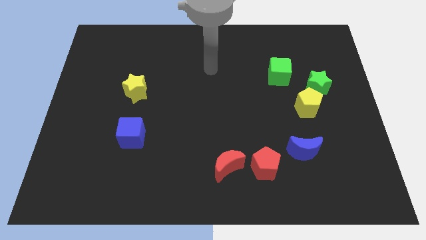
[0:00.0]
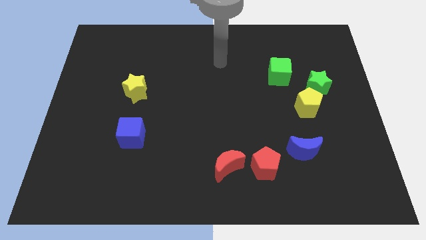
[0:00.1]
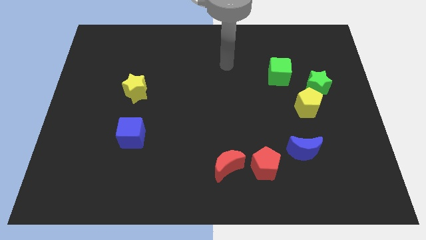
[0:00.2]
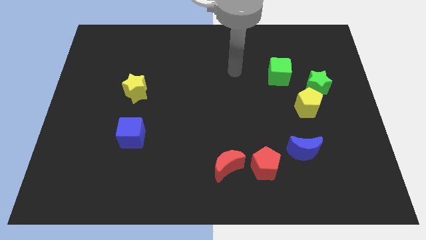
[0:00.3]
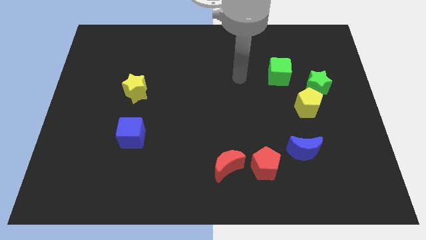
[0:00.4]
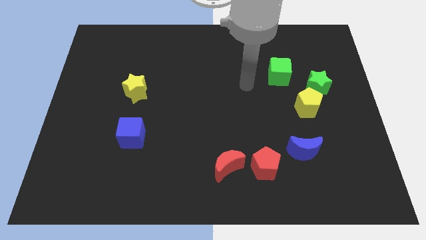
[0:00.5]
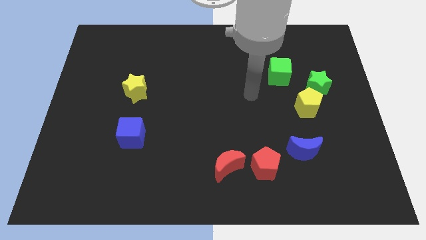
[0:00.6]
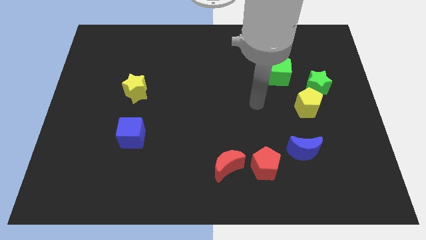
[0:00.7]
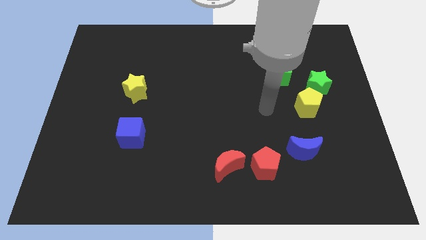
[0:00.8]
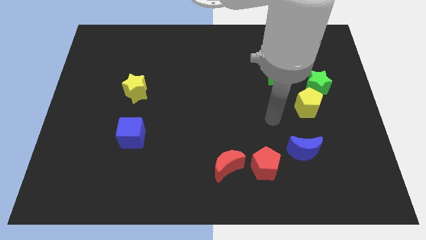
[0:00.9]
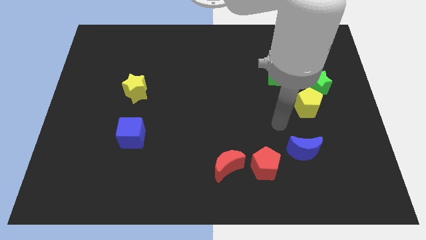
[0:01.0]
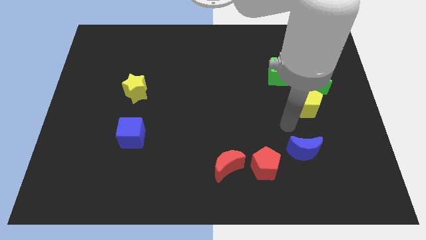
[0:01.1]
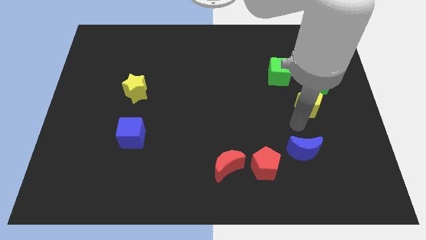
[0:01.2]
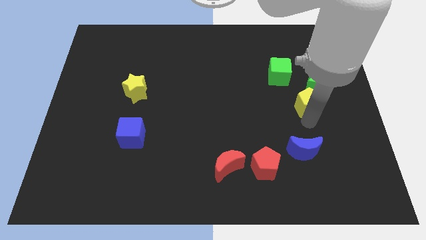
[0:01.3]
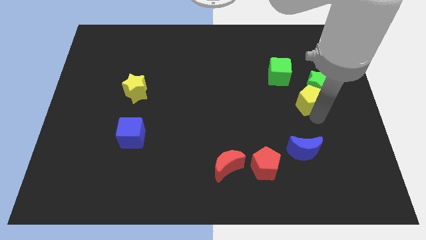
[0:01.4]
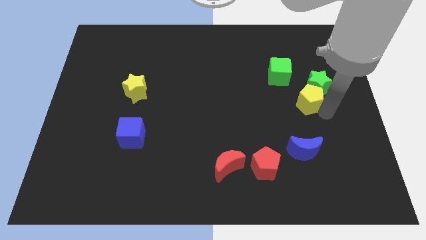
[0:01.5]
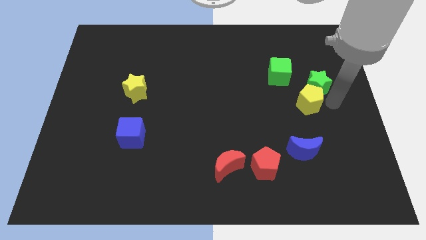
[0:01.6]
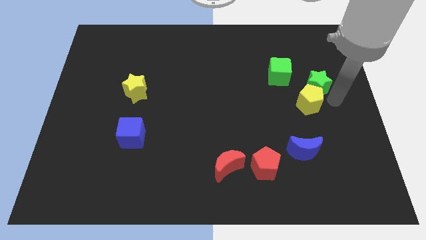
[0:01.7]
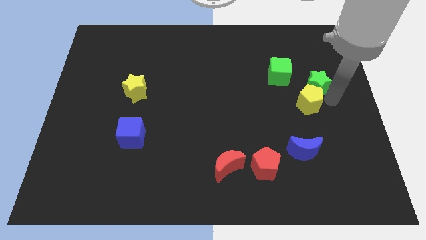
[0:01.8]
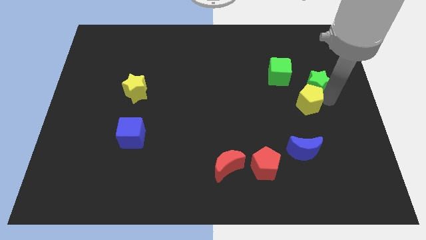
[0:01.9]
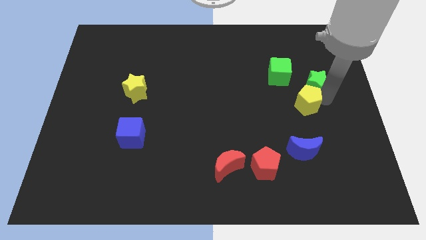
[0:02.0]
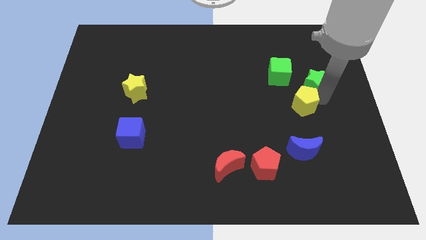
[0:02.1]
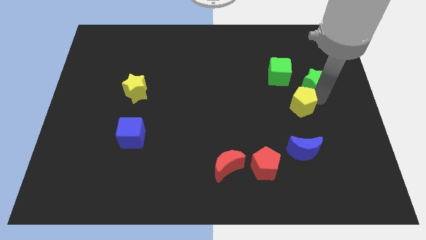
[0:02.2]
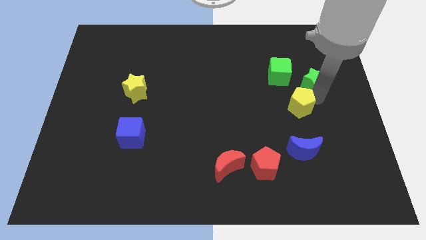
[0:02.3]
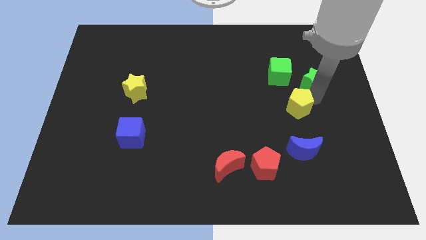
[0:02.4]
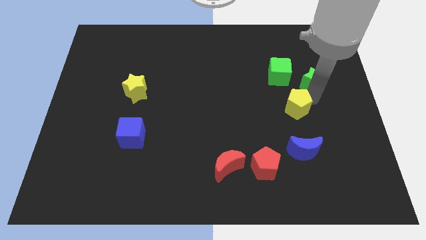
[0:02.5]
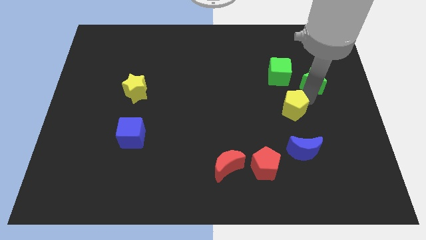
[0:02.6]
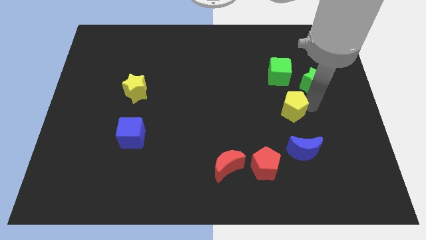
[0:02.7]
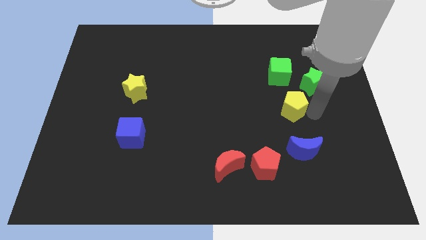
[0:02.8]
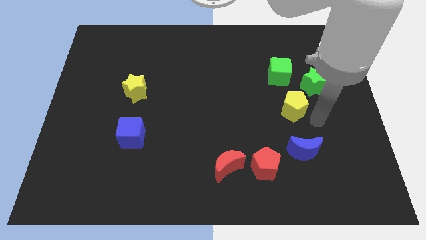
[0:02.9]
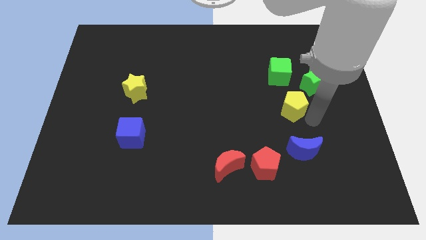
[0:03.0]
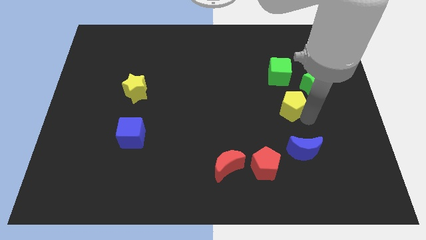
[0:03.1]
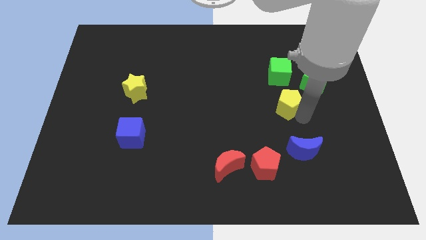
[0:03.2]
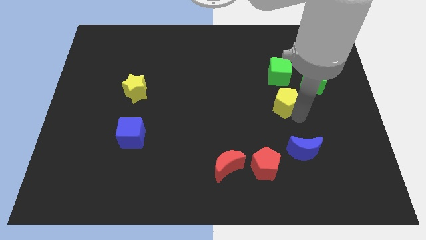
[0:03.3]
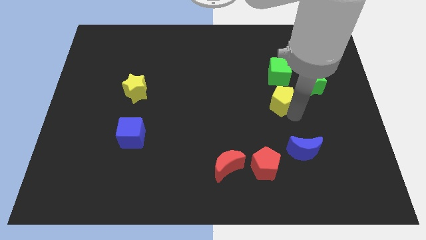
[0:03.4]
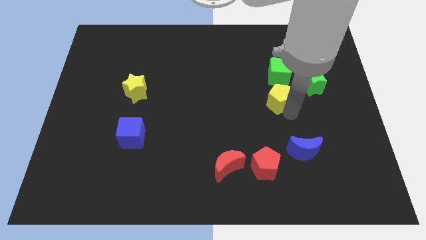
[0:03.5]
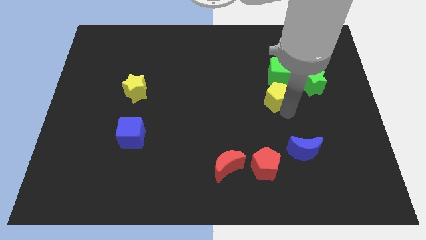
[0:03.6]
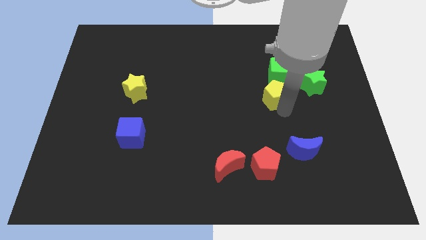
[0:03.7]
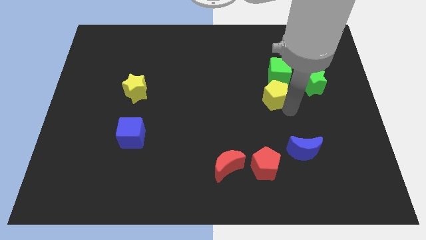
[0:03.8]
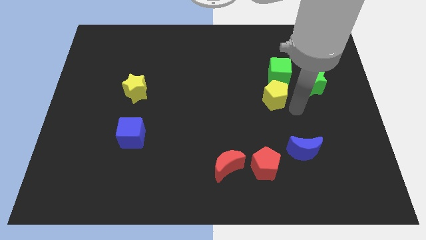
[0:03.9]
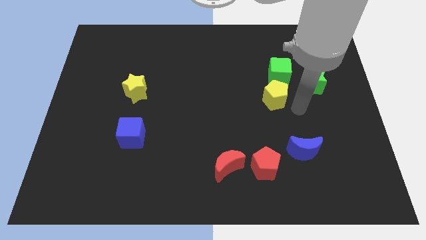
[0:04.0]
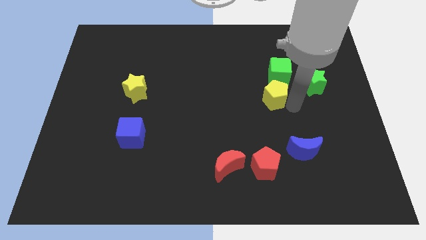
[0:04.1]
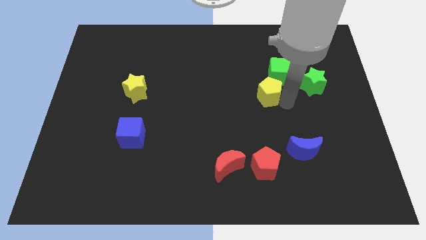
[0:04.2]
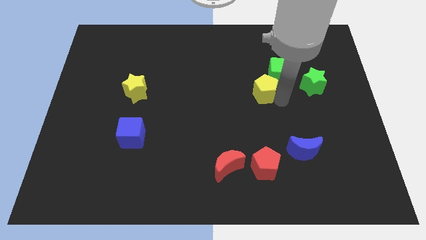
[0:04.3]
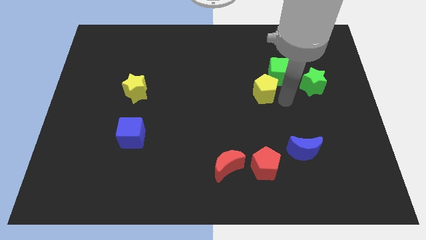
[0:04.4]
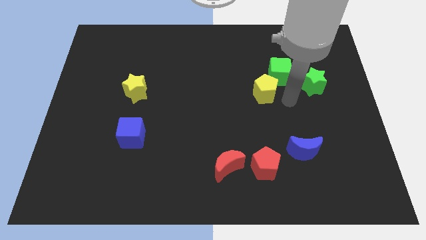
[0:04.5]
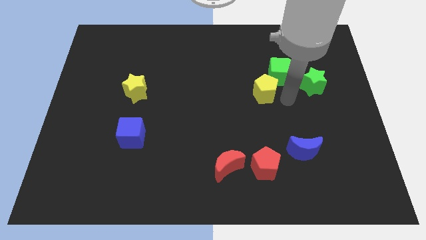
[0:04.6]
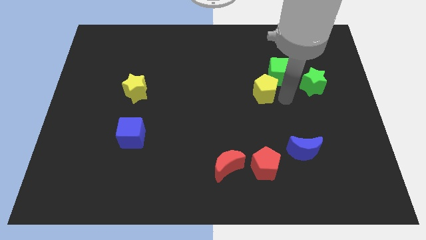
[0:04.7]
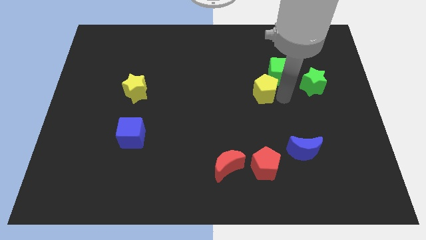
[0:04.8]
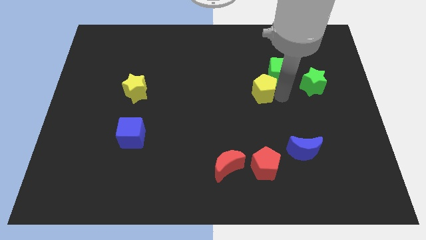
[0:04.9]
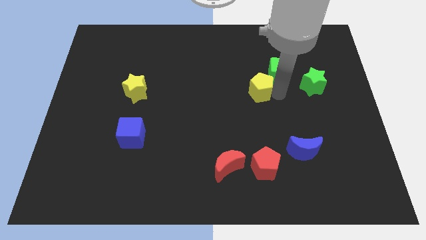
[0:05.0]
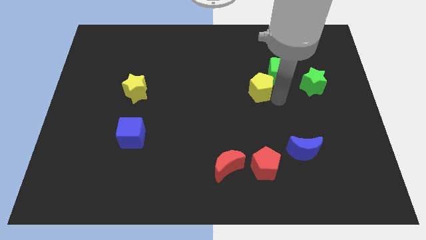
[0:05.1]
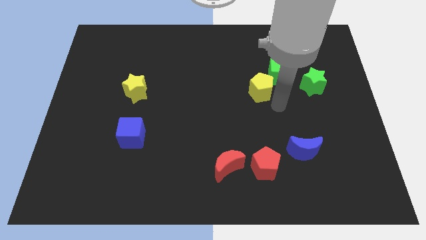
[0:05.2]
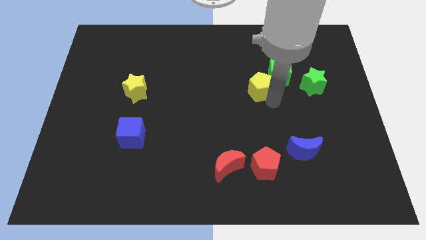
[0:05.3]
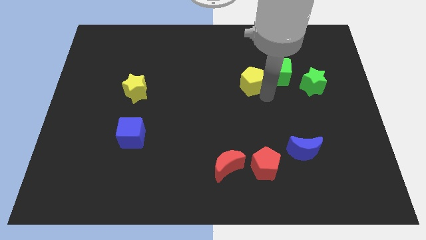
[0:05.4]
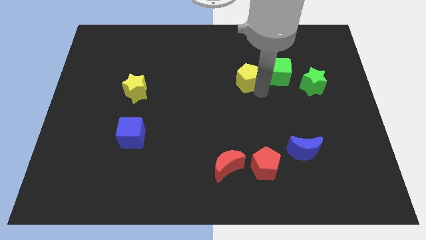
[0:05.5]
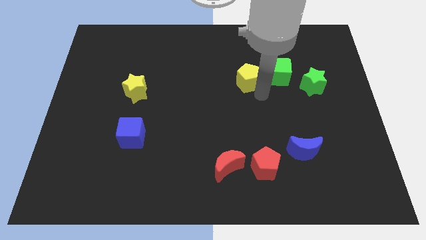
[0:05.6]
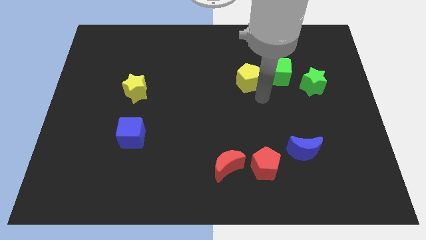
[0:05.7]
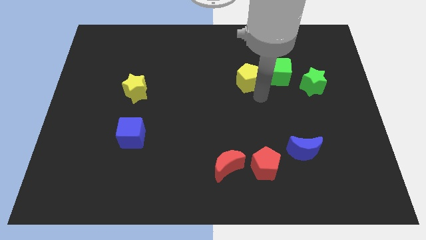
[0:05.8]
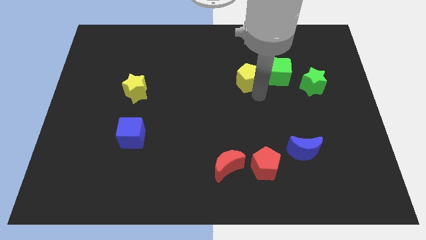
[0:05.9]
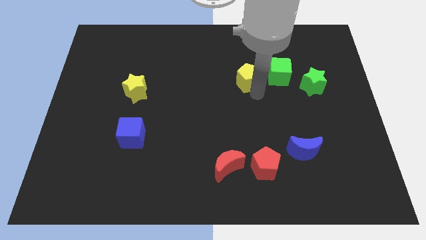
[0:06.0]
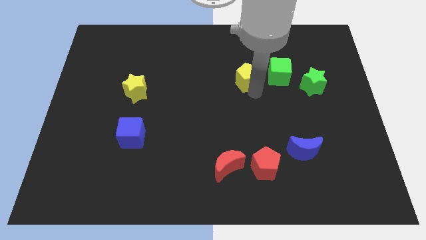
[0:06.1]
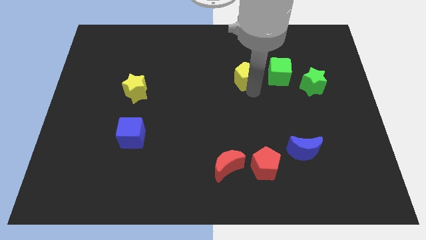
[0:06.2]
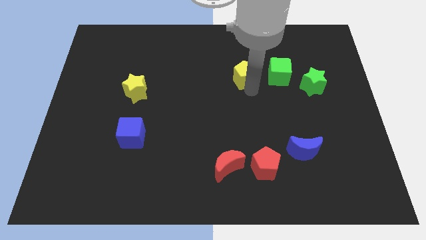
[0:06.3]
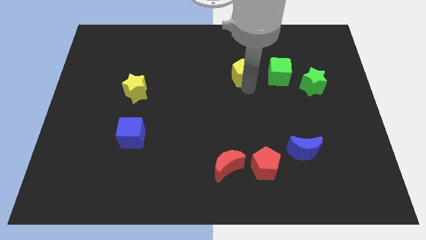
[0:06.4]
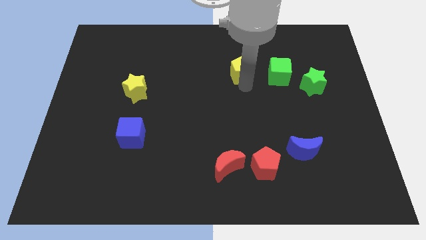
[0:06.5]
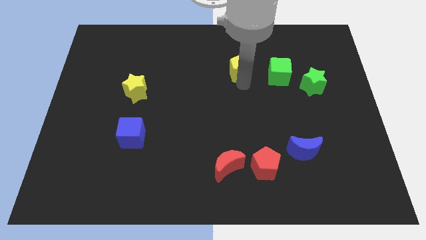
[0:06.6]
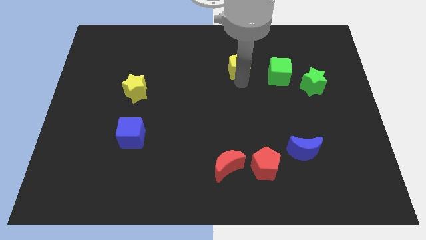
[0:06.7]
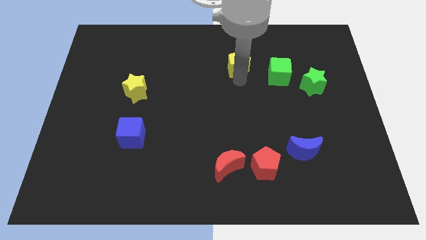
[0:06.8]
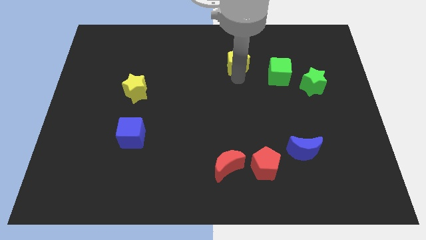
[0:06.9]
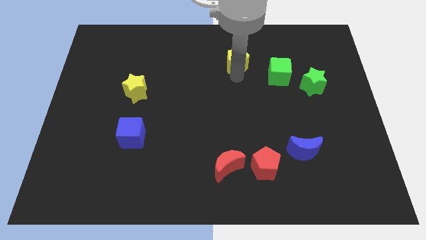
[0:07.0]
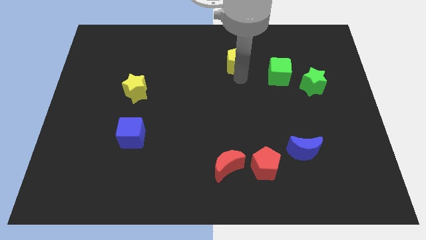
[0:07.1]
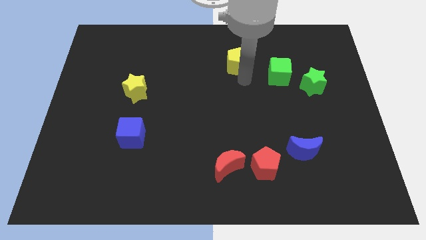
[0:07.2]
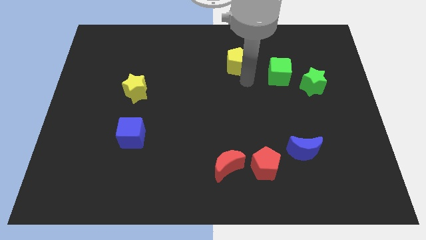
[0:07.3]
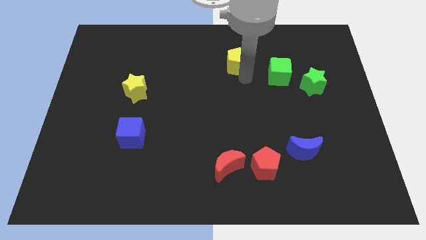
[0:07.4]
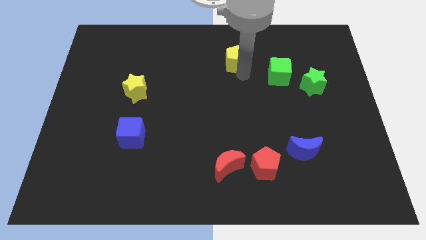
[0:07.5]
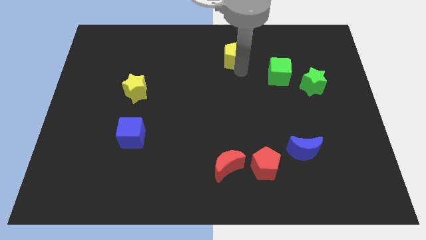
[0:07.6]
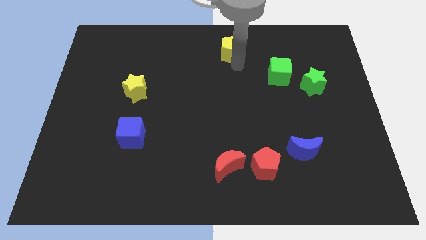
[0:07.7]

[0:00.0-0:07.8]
slide the yellow pentagon to the top side
